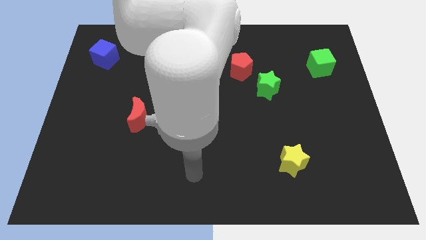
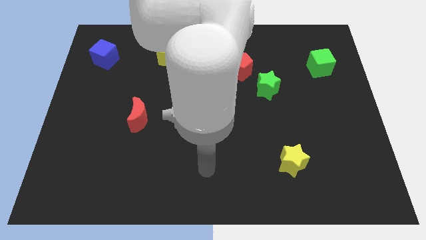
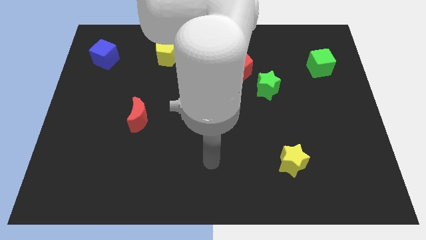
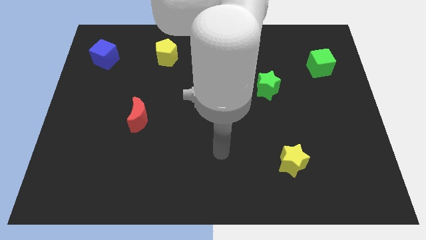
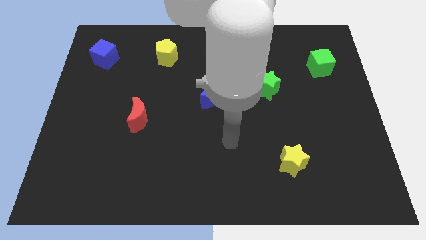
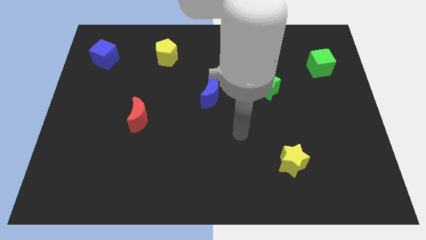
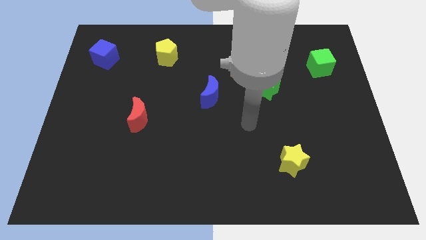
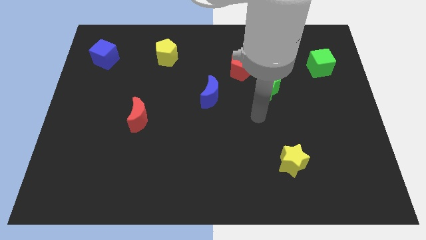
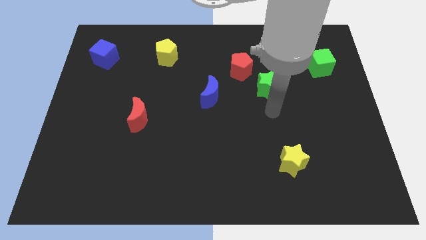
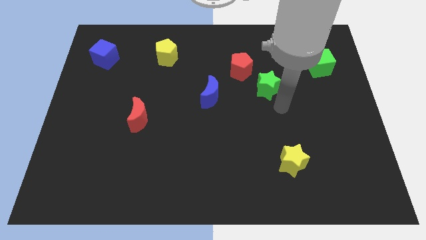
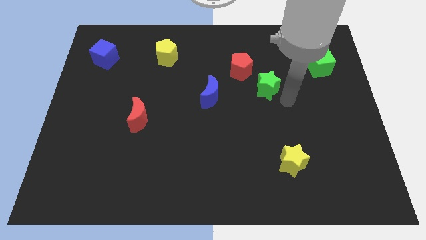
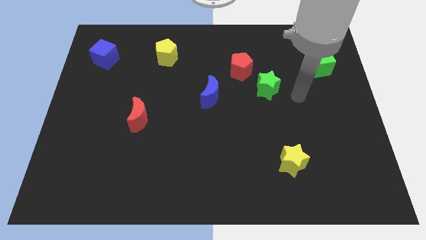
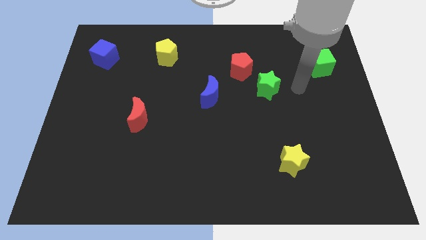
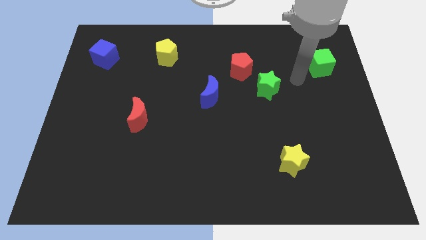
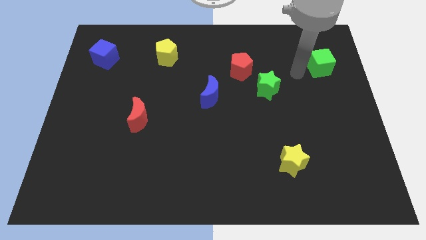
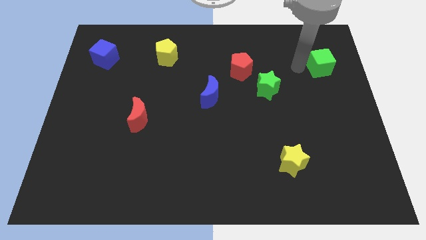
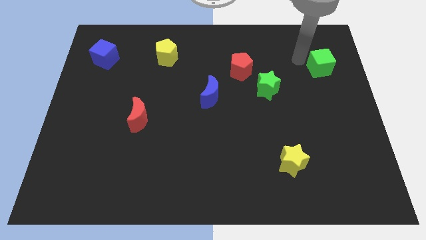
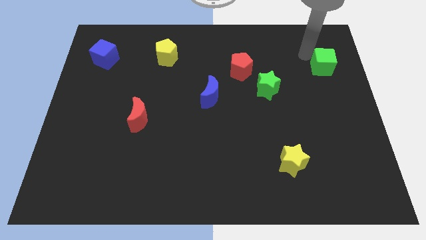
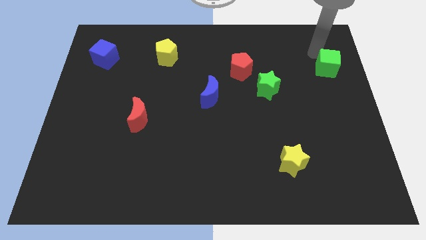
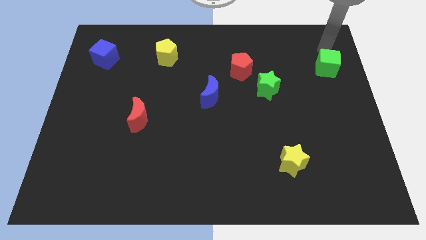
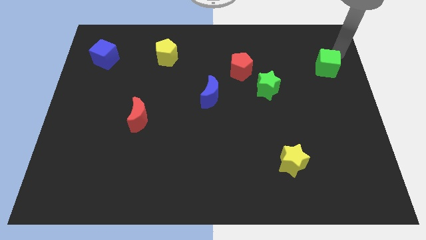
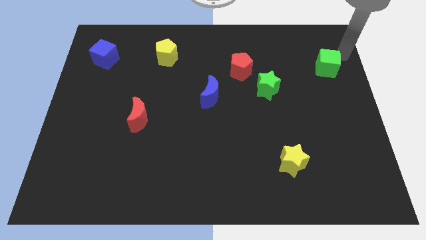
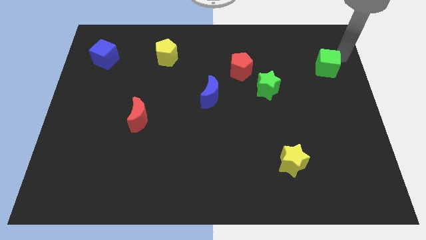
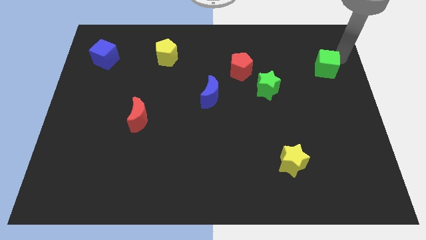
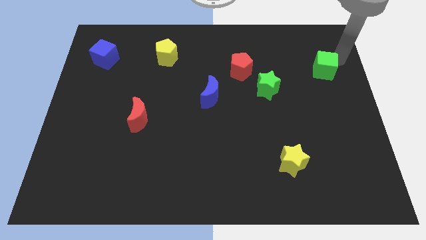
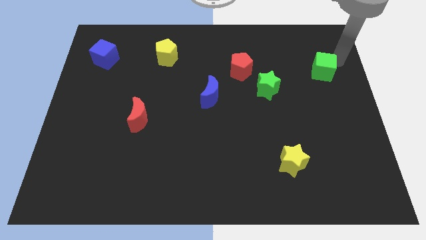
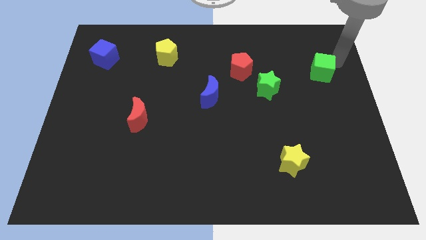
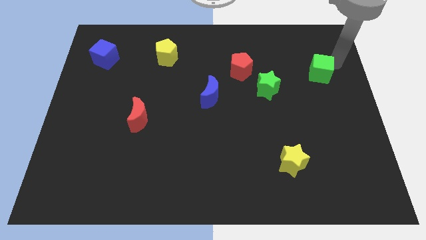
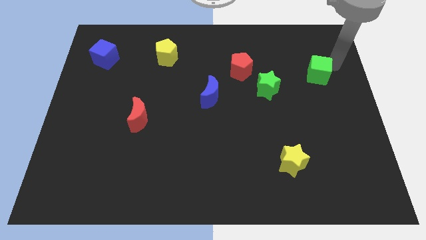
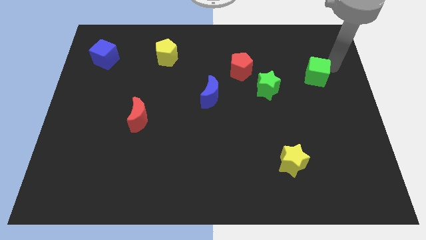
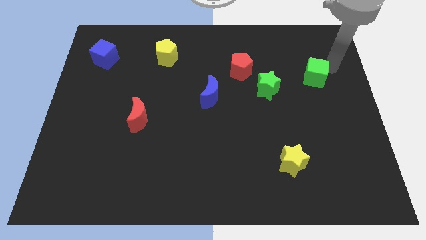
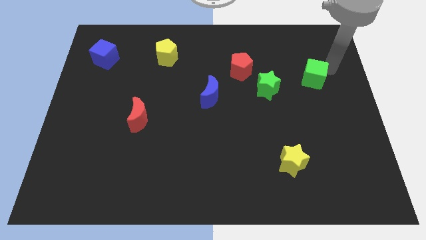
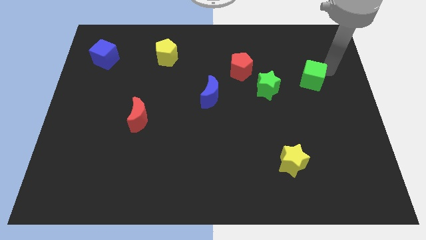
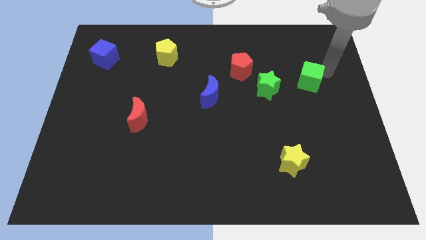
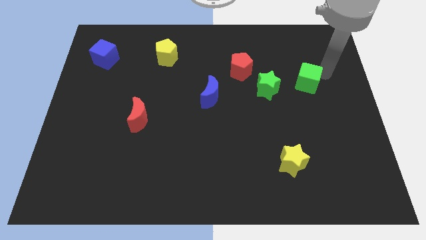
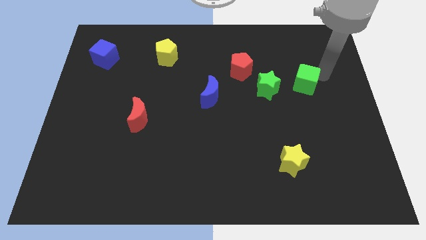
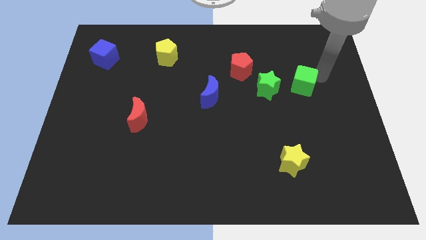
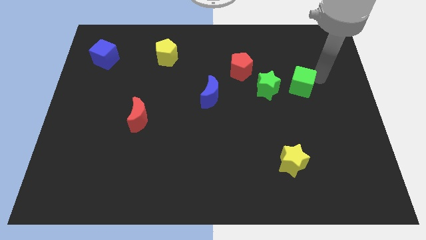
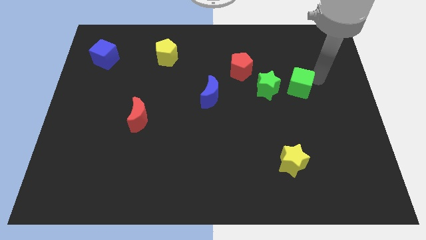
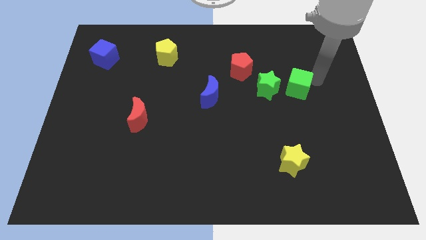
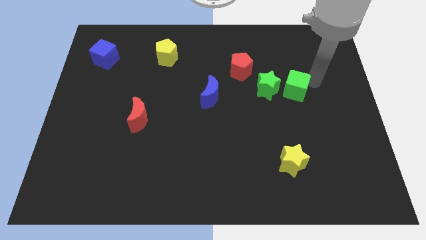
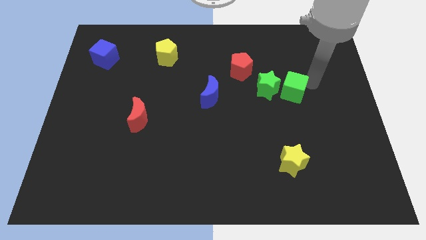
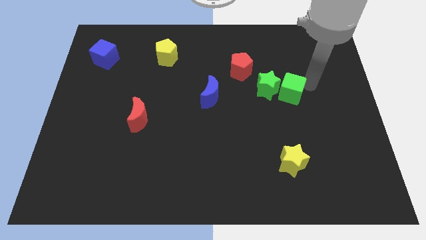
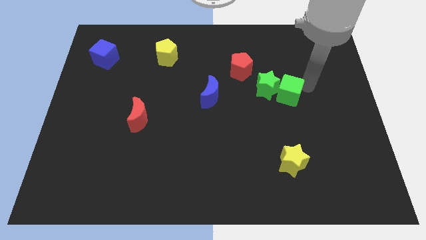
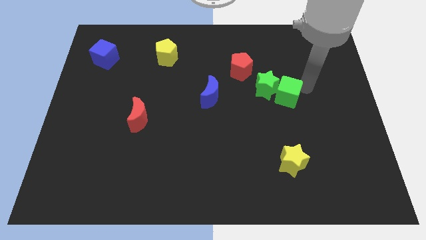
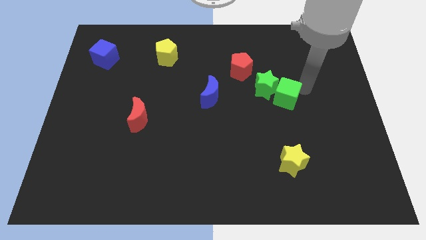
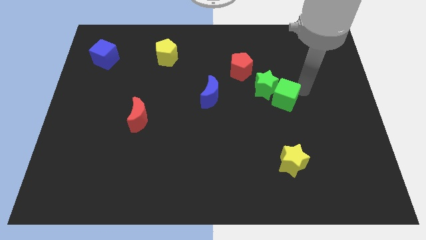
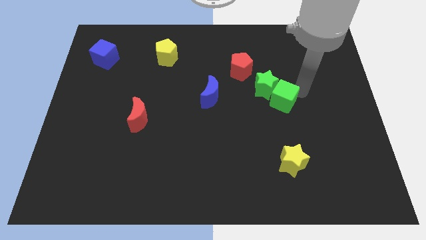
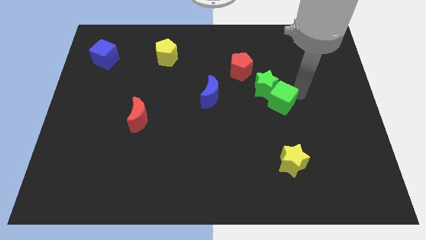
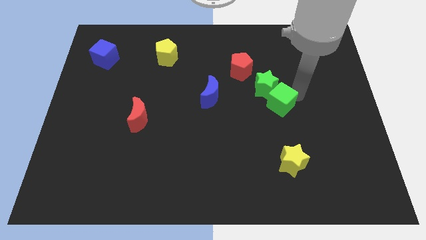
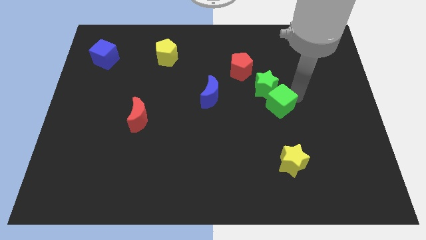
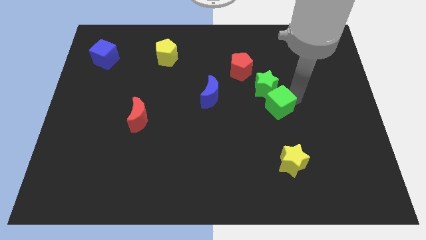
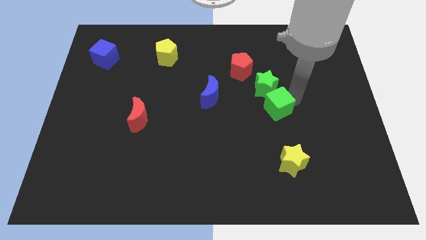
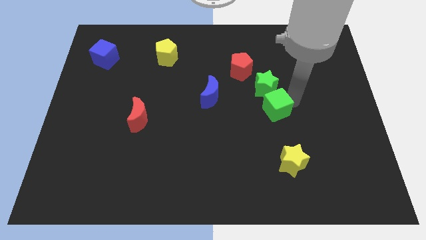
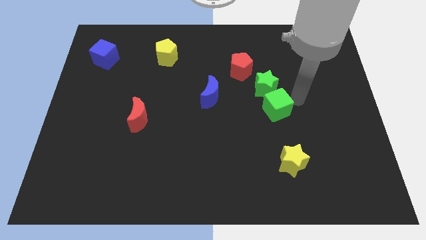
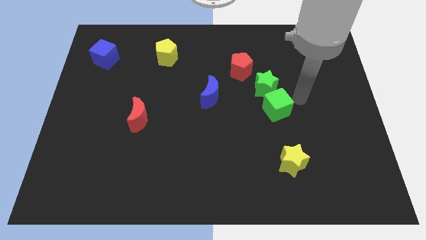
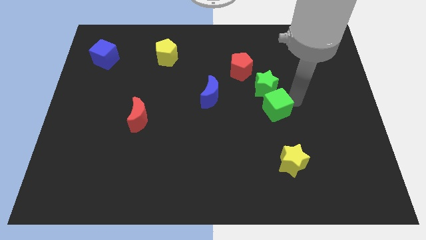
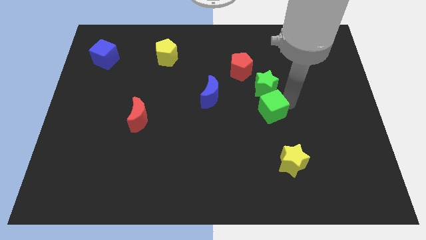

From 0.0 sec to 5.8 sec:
slide the green cube down and left diagonally

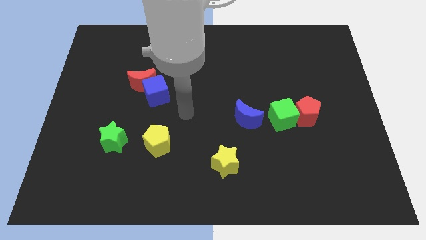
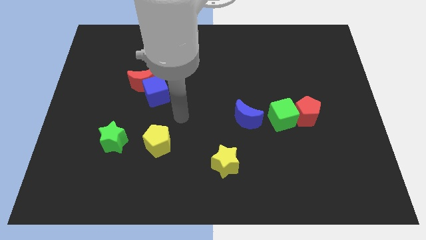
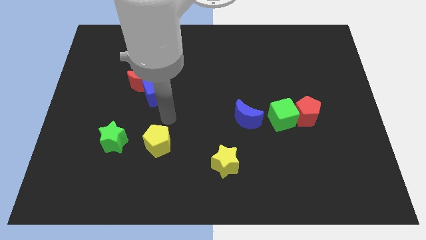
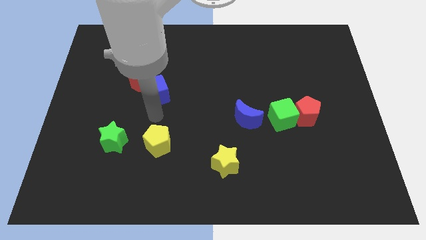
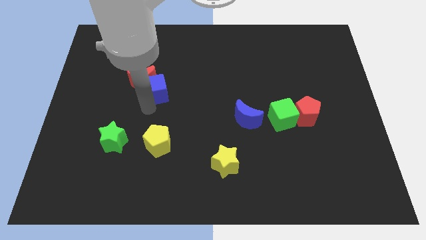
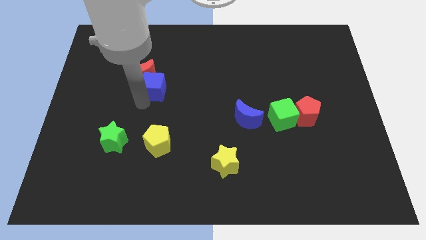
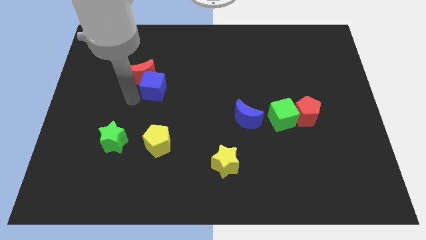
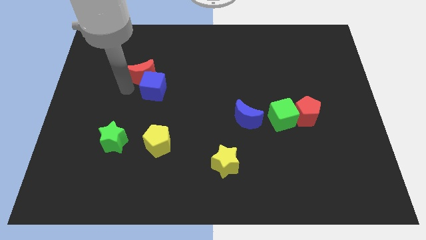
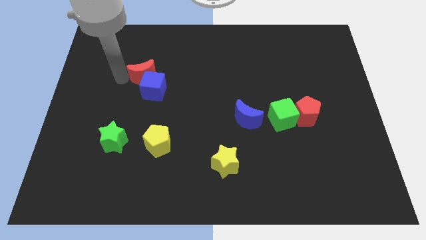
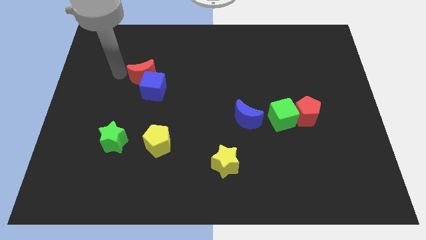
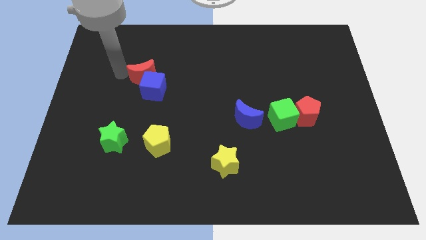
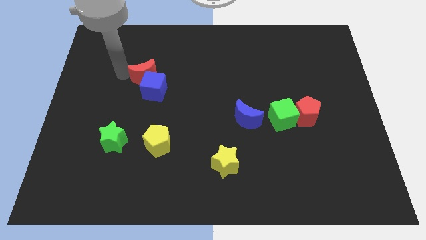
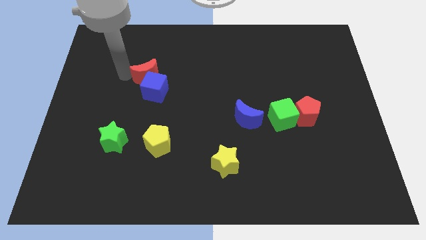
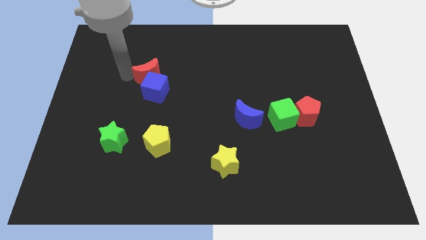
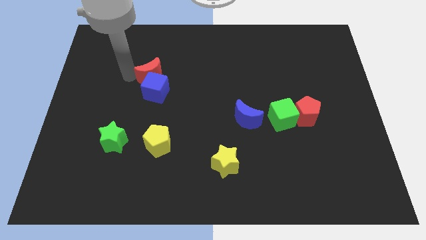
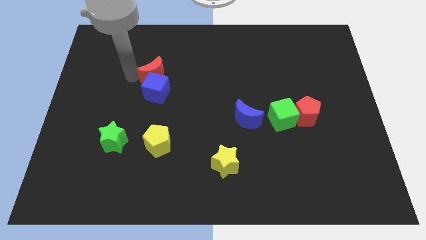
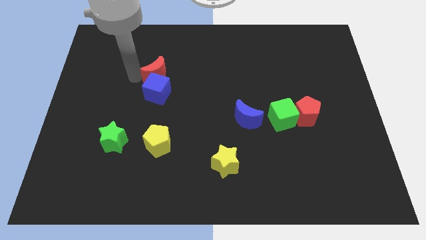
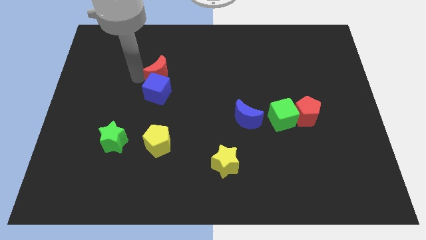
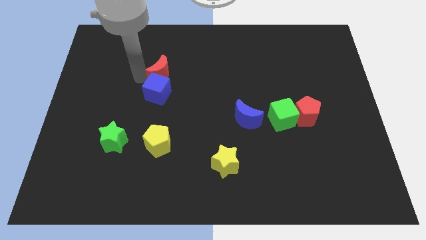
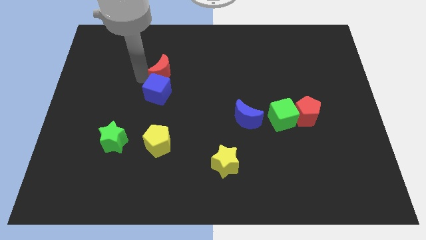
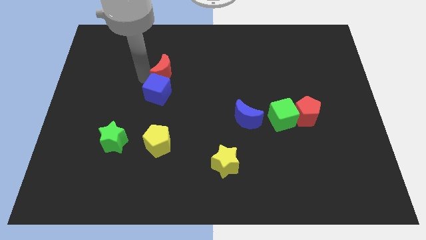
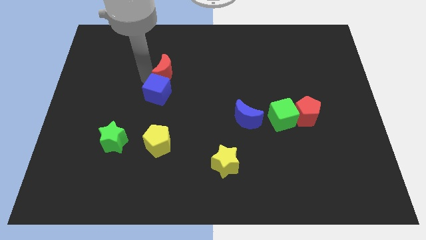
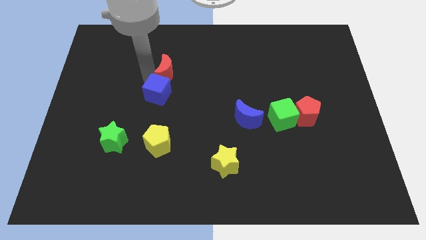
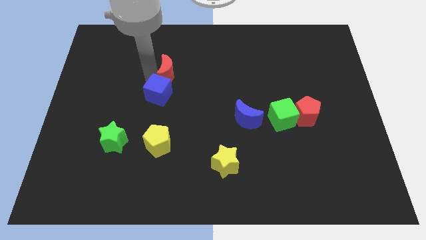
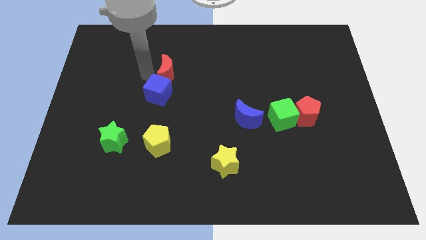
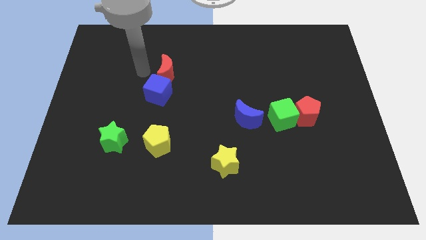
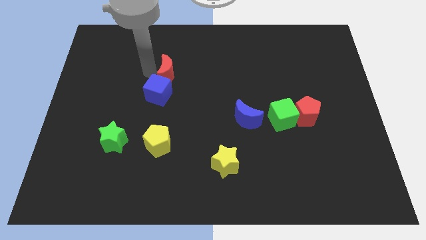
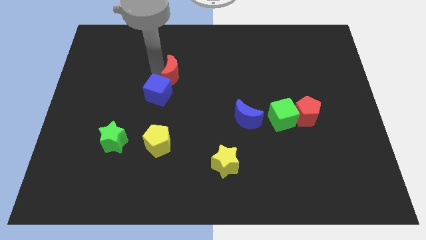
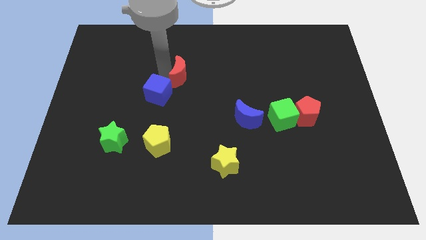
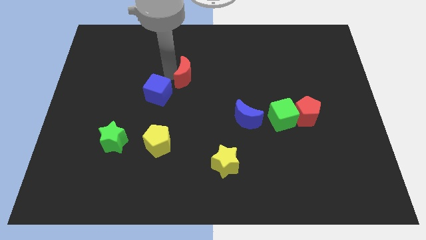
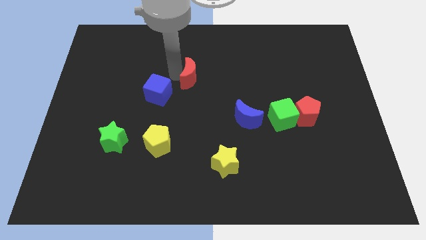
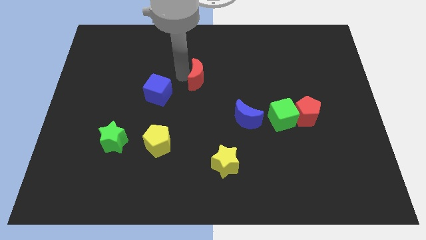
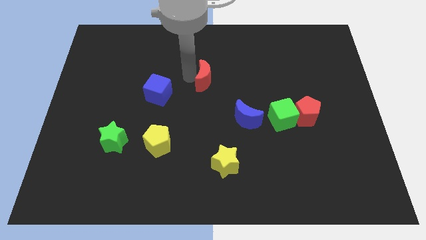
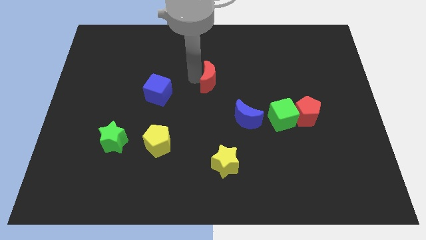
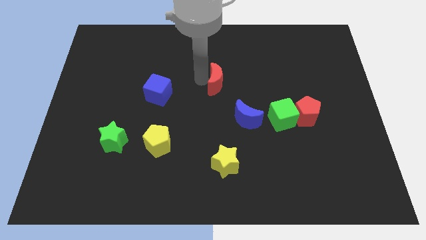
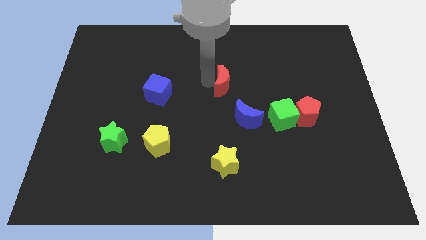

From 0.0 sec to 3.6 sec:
move the red moon right
